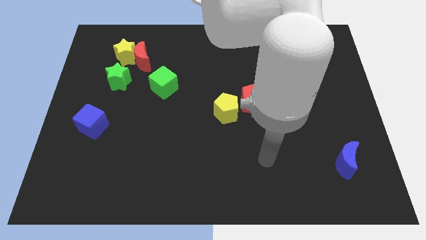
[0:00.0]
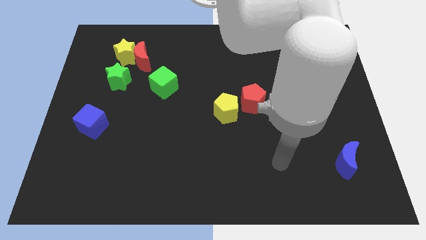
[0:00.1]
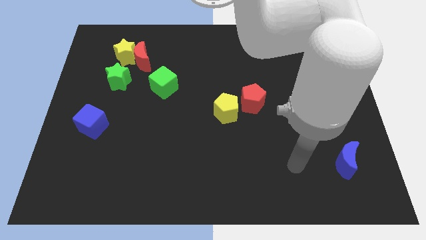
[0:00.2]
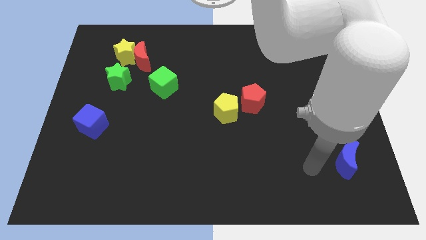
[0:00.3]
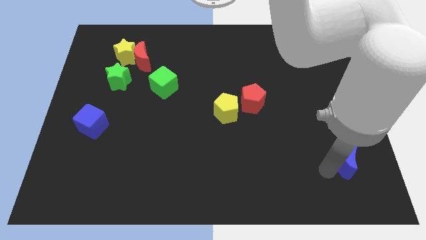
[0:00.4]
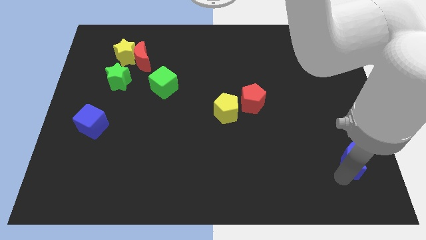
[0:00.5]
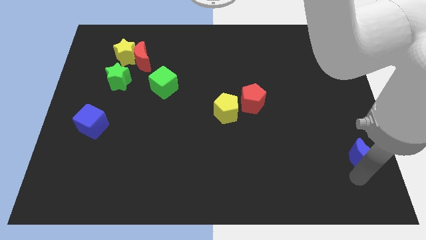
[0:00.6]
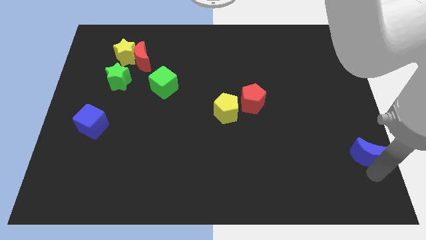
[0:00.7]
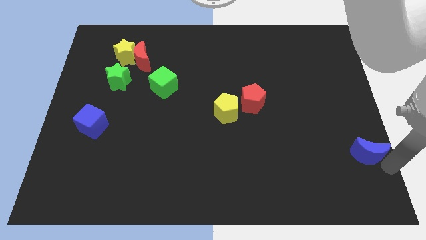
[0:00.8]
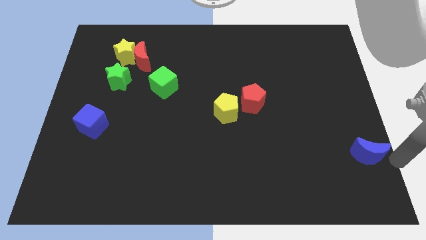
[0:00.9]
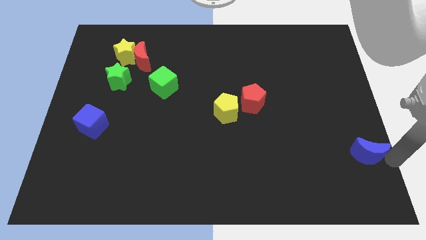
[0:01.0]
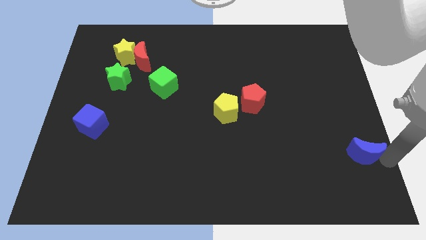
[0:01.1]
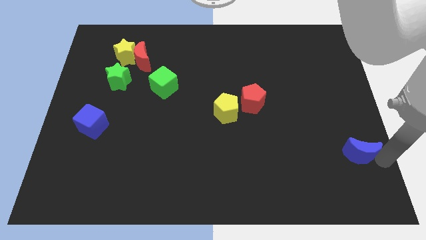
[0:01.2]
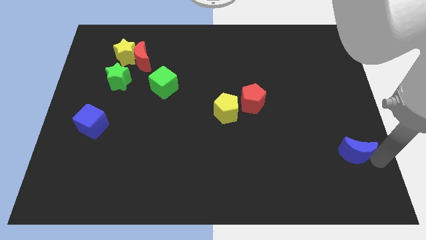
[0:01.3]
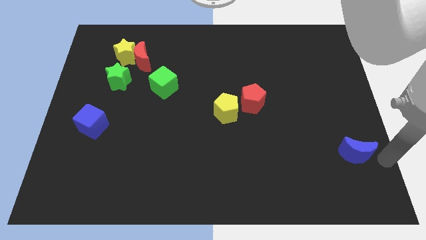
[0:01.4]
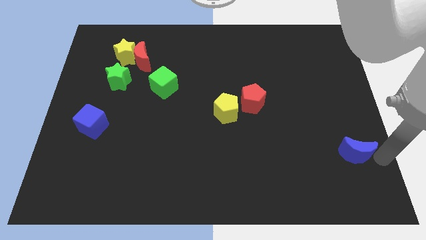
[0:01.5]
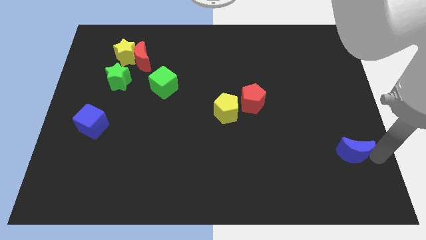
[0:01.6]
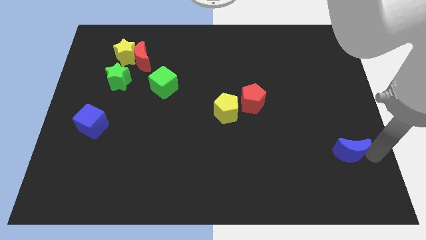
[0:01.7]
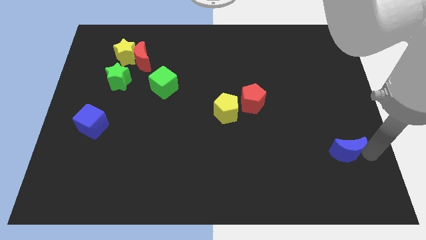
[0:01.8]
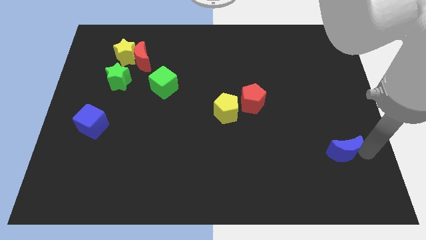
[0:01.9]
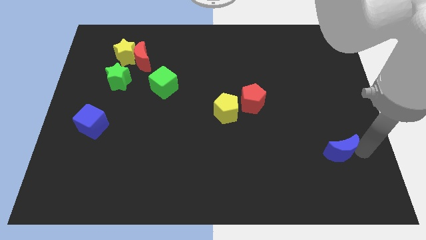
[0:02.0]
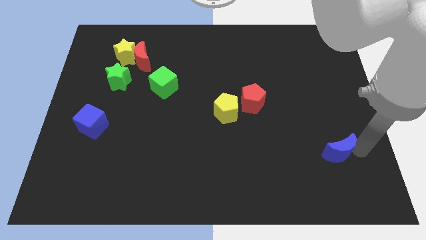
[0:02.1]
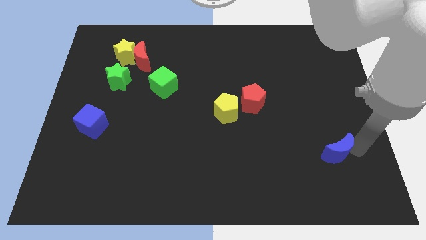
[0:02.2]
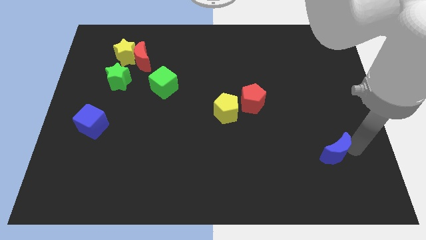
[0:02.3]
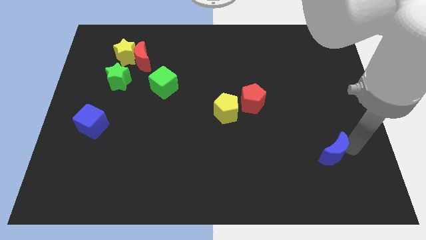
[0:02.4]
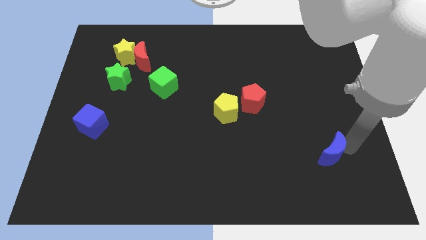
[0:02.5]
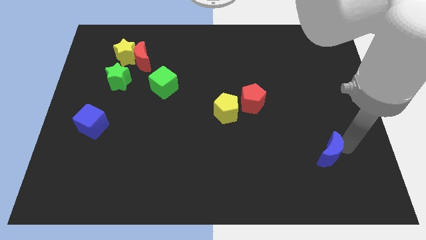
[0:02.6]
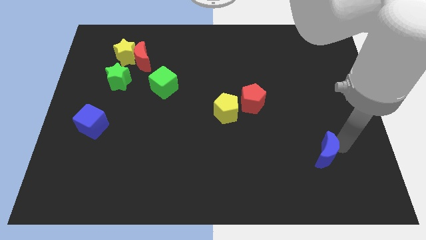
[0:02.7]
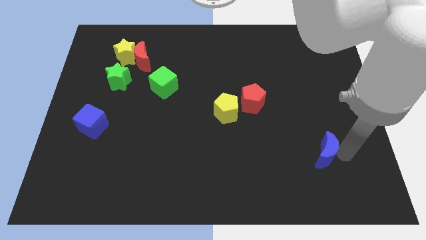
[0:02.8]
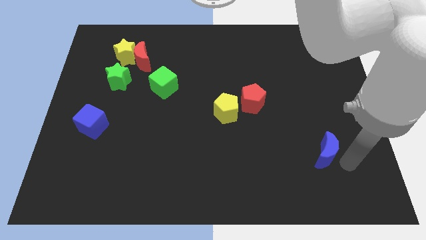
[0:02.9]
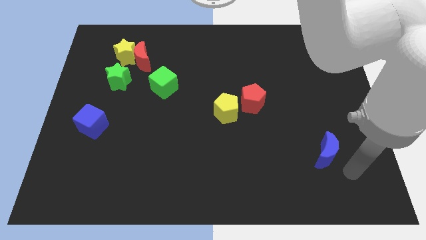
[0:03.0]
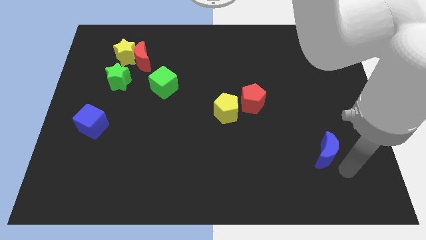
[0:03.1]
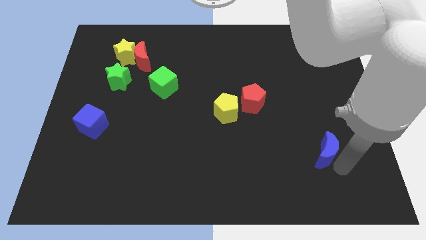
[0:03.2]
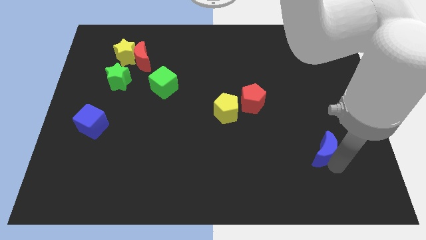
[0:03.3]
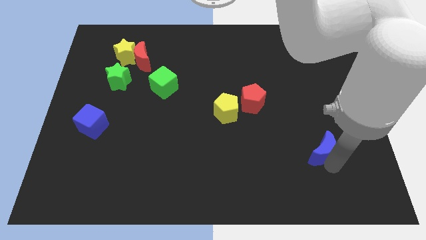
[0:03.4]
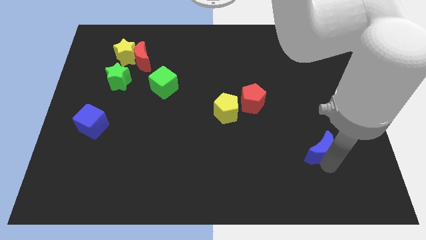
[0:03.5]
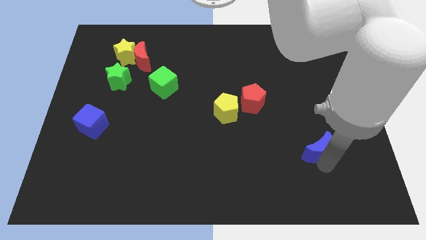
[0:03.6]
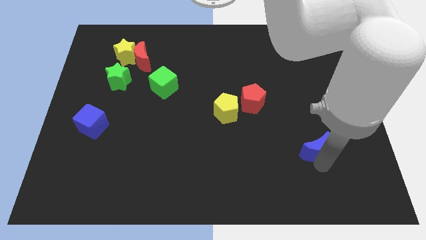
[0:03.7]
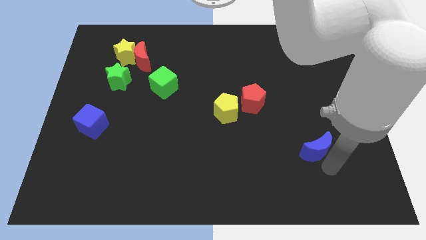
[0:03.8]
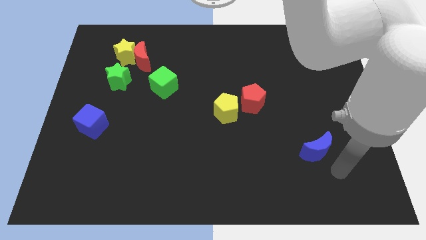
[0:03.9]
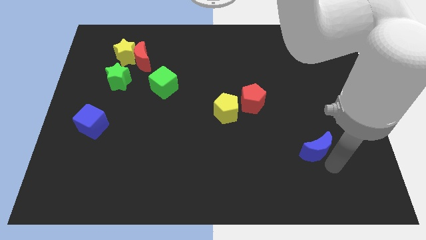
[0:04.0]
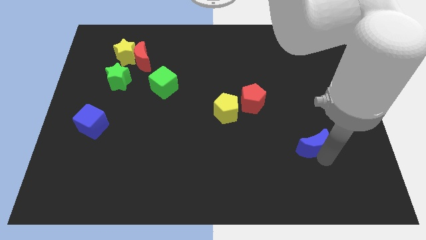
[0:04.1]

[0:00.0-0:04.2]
push the blue moon a bit diagonally up and to the left

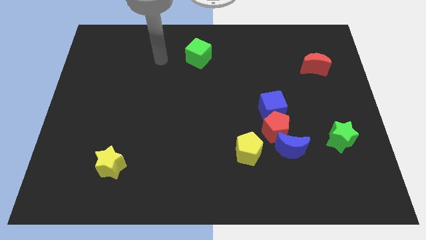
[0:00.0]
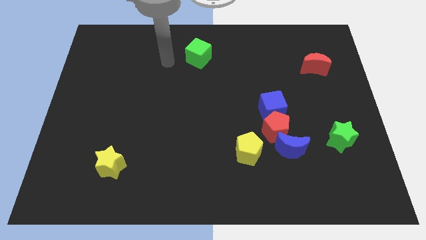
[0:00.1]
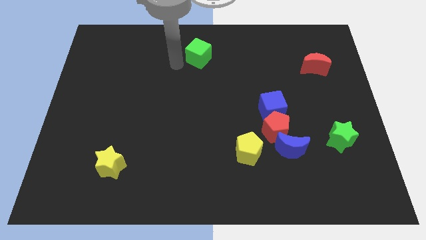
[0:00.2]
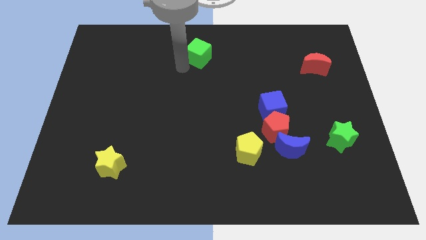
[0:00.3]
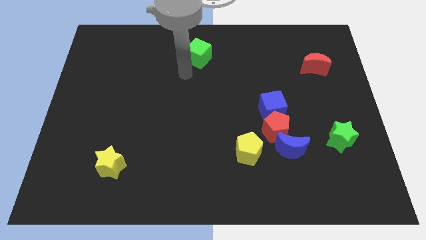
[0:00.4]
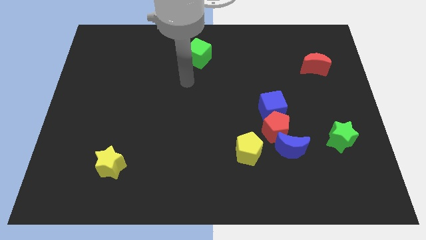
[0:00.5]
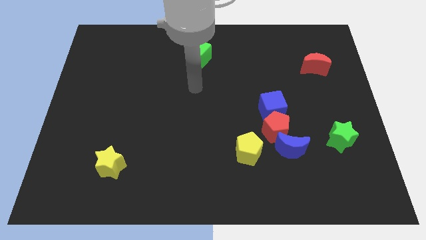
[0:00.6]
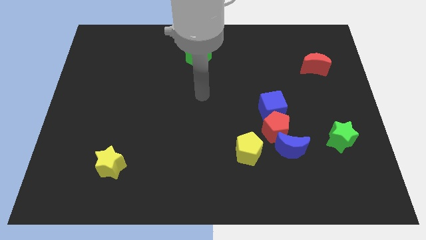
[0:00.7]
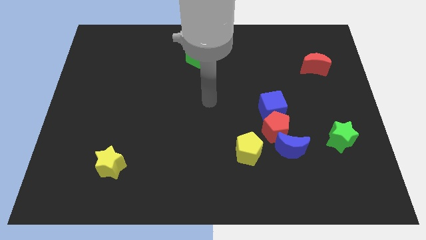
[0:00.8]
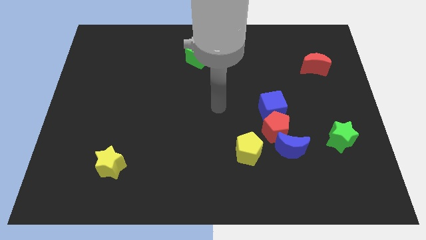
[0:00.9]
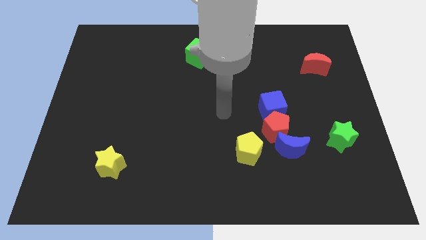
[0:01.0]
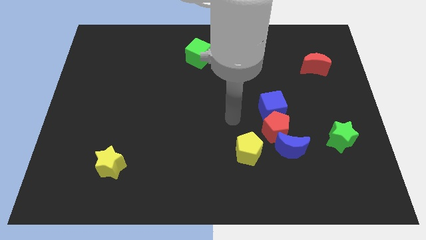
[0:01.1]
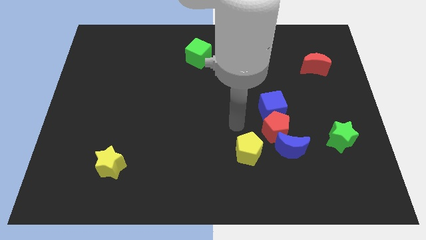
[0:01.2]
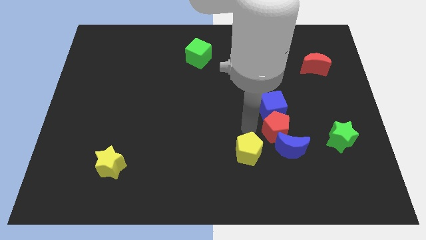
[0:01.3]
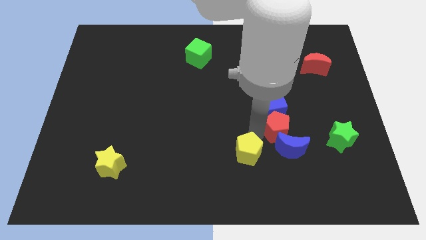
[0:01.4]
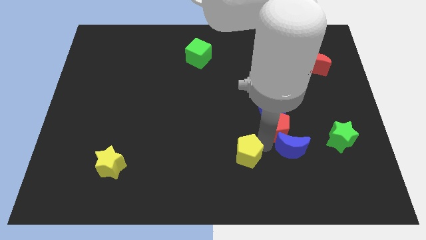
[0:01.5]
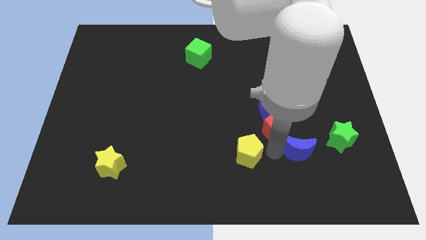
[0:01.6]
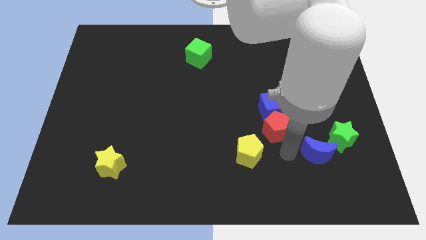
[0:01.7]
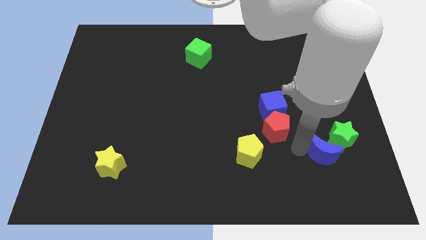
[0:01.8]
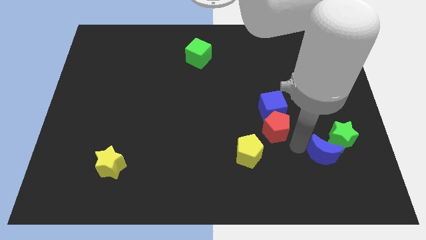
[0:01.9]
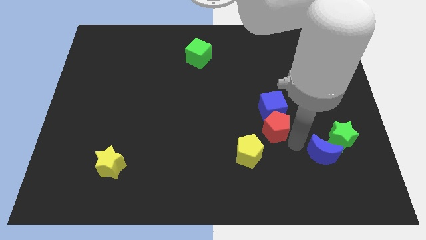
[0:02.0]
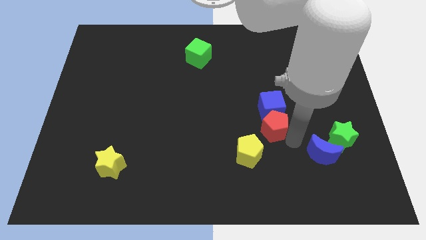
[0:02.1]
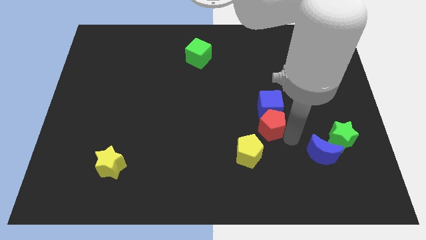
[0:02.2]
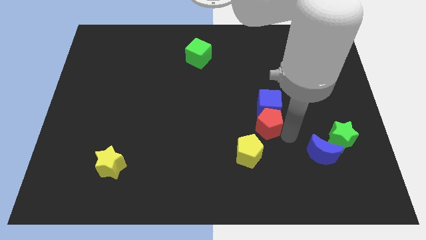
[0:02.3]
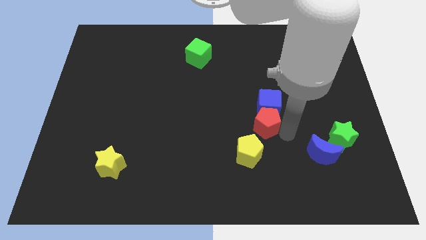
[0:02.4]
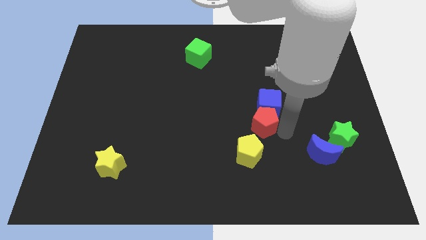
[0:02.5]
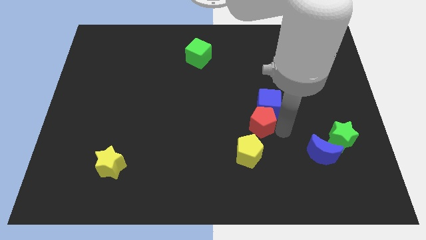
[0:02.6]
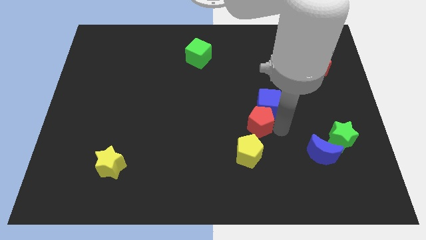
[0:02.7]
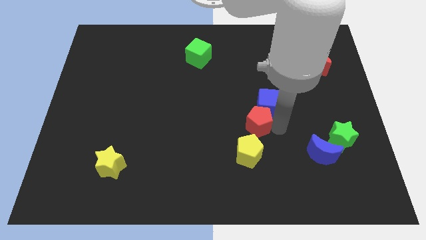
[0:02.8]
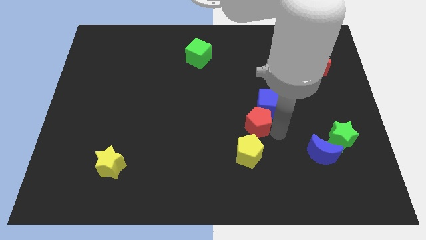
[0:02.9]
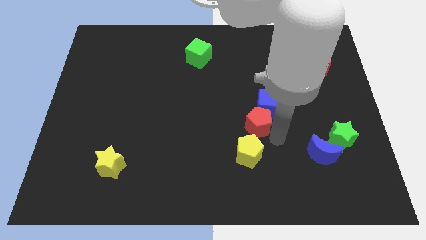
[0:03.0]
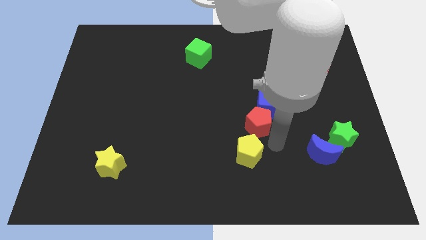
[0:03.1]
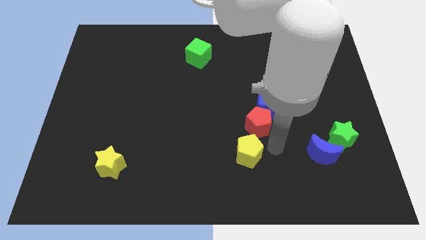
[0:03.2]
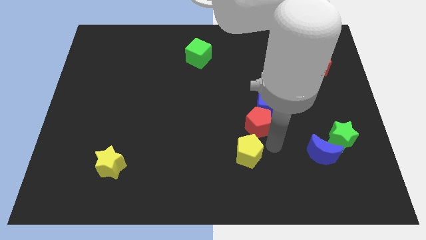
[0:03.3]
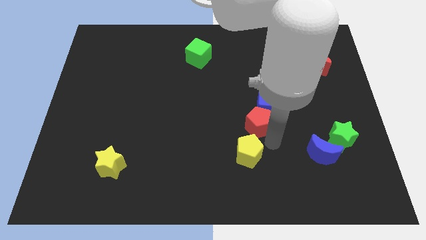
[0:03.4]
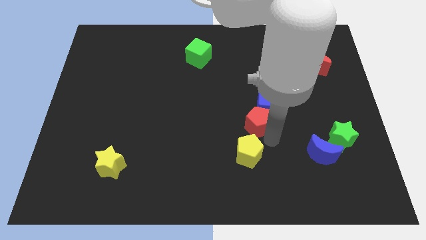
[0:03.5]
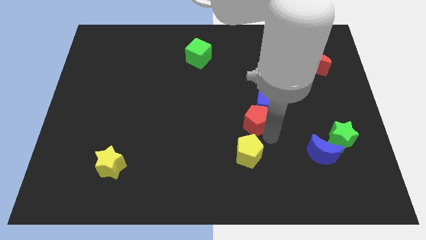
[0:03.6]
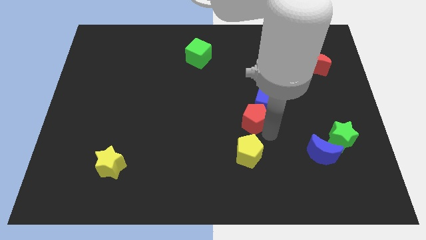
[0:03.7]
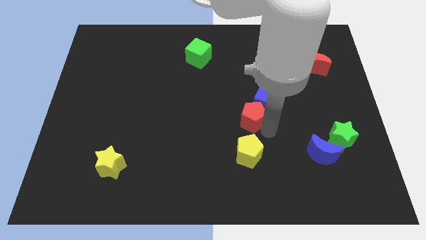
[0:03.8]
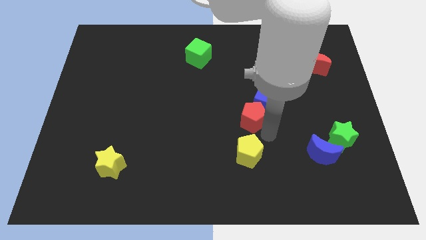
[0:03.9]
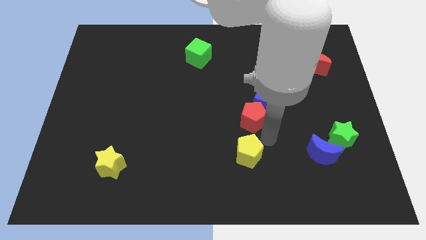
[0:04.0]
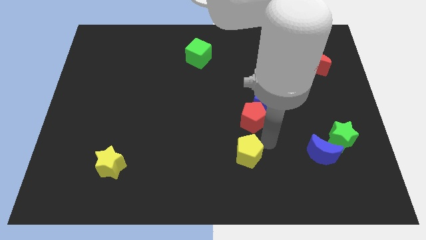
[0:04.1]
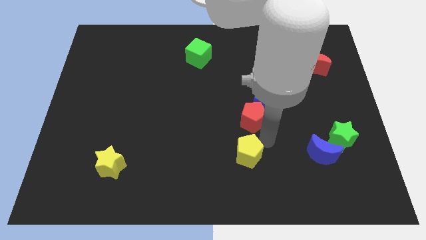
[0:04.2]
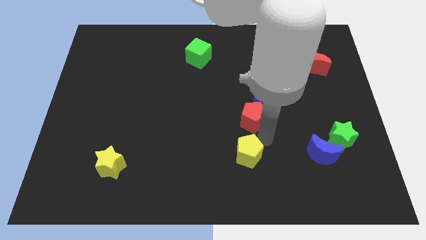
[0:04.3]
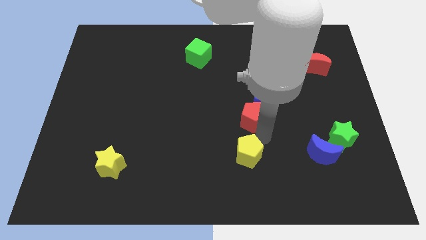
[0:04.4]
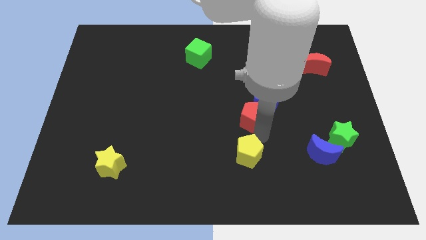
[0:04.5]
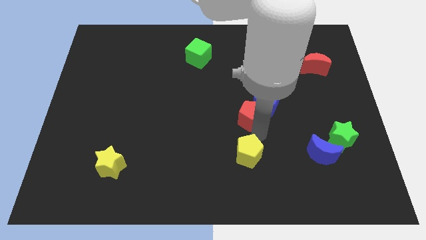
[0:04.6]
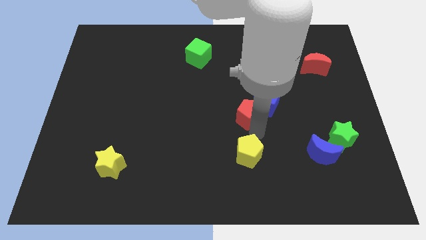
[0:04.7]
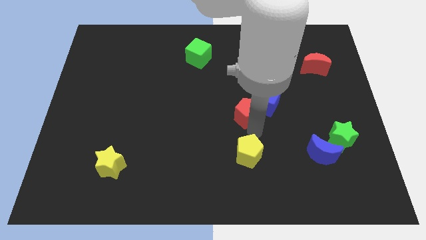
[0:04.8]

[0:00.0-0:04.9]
slightly push the red pentagon upwards and to the left
